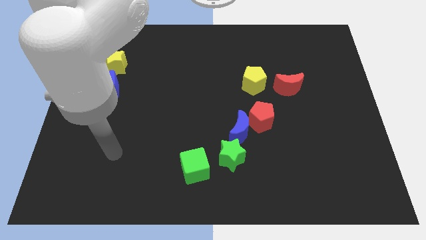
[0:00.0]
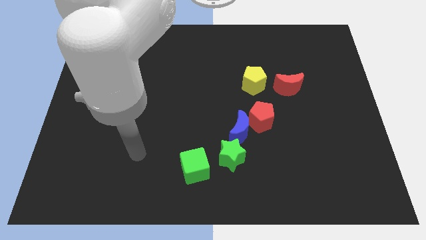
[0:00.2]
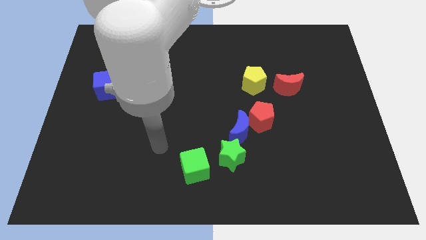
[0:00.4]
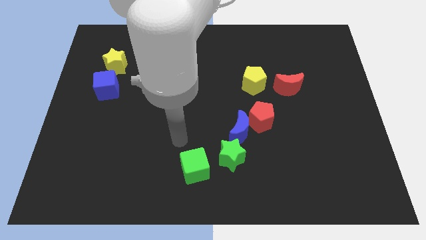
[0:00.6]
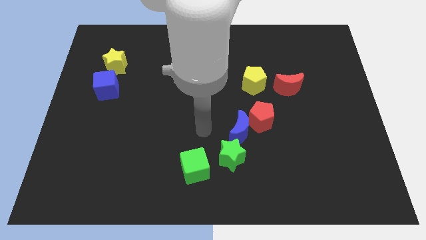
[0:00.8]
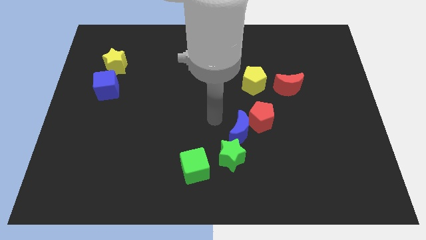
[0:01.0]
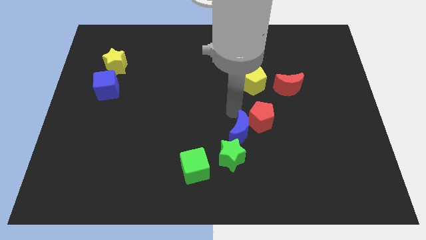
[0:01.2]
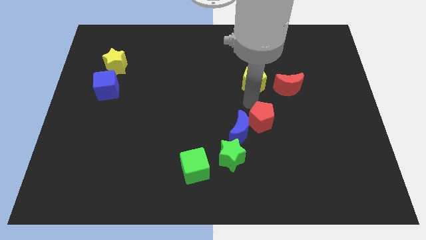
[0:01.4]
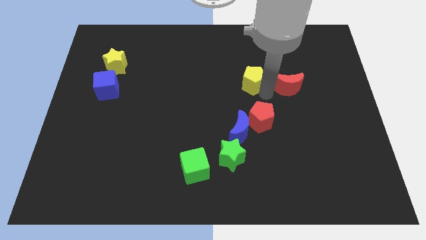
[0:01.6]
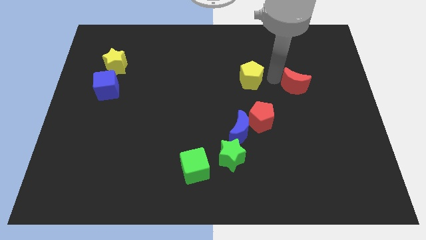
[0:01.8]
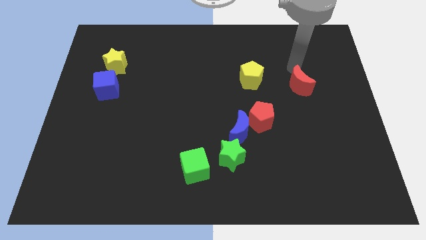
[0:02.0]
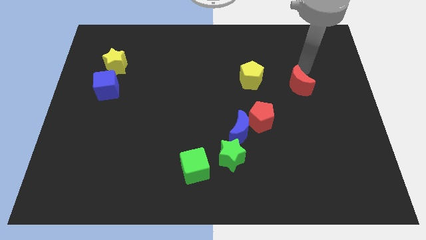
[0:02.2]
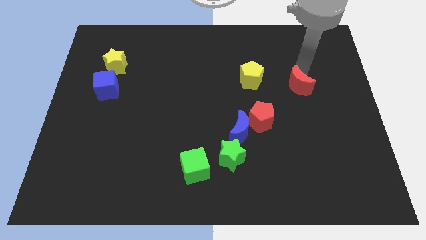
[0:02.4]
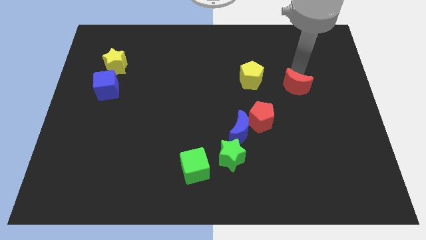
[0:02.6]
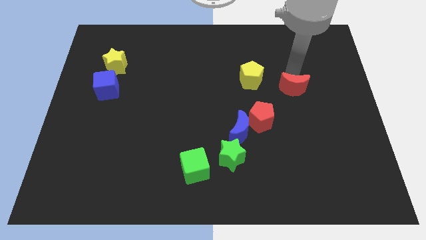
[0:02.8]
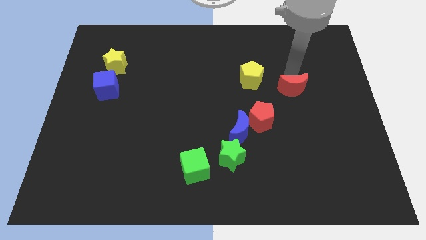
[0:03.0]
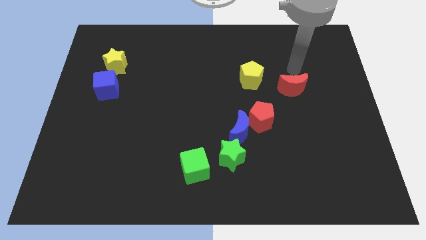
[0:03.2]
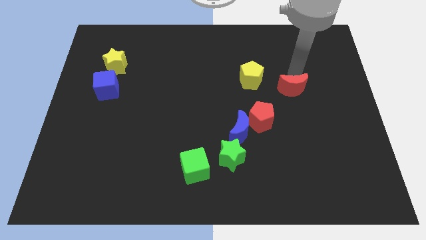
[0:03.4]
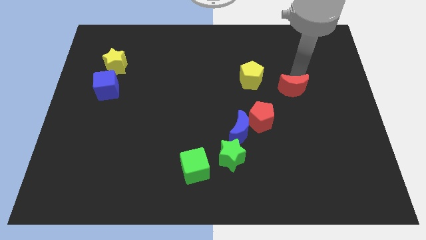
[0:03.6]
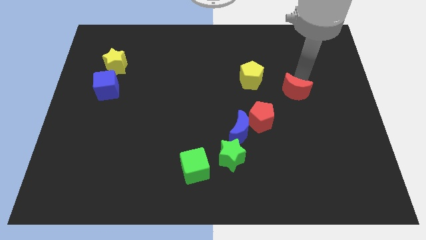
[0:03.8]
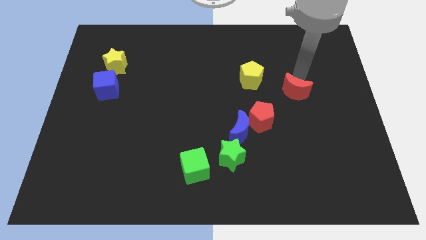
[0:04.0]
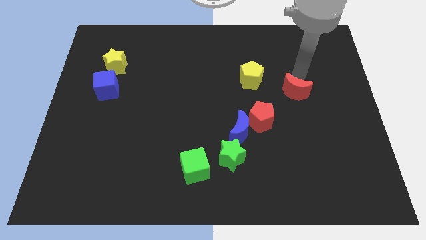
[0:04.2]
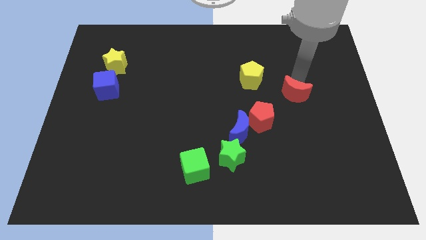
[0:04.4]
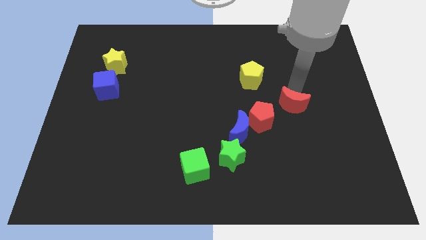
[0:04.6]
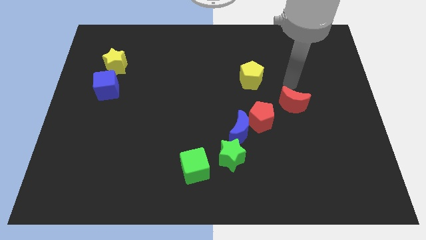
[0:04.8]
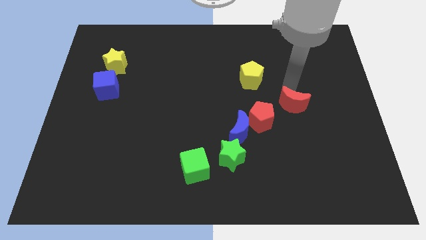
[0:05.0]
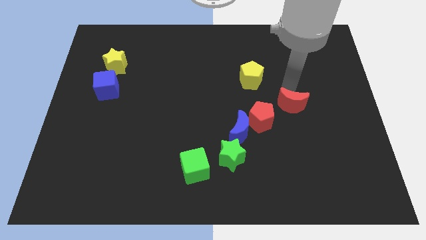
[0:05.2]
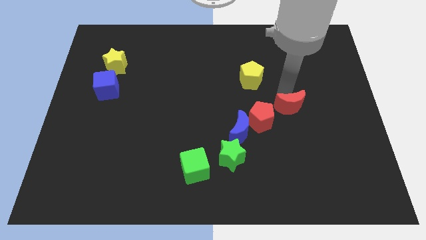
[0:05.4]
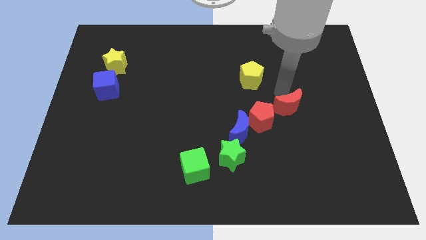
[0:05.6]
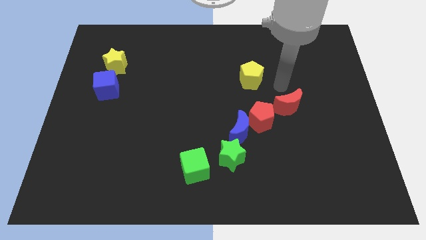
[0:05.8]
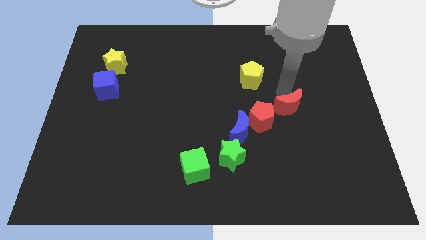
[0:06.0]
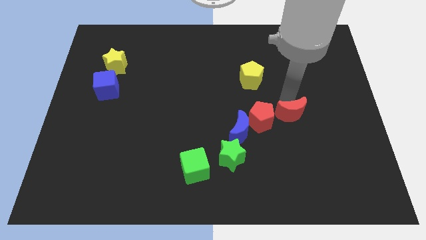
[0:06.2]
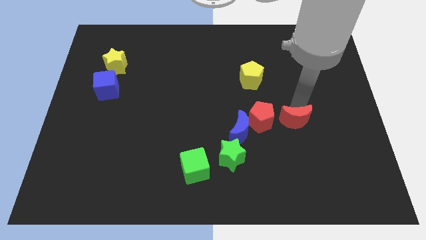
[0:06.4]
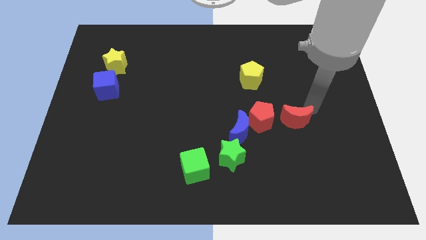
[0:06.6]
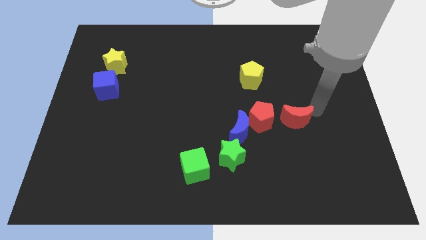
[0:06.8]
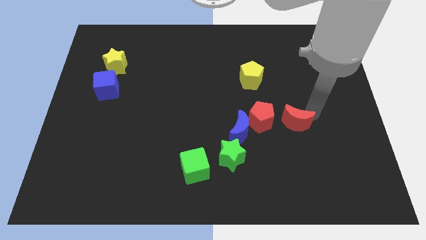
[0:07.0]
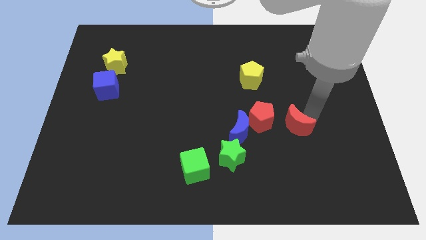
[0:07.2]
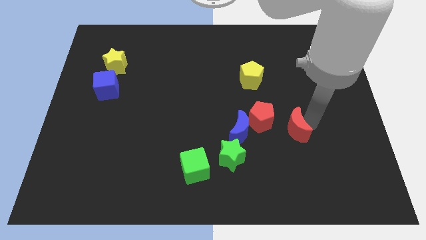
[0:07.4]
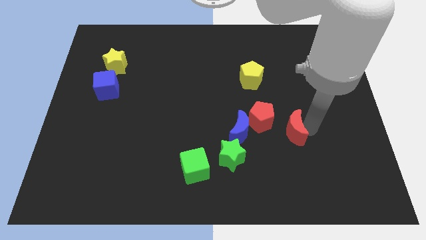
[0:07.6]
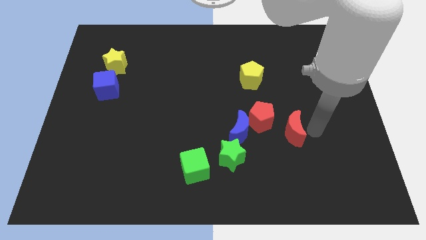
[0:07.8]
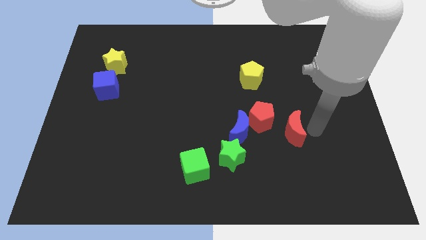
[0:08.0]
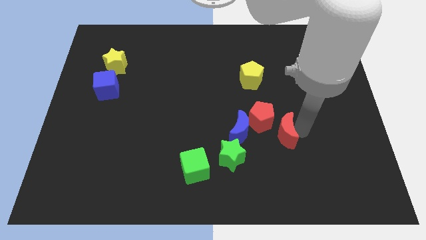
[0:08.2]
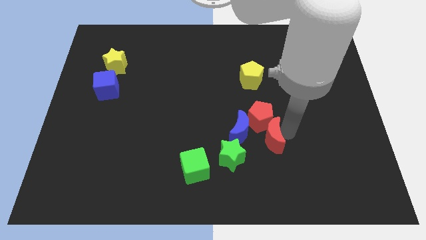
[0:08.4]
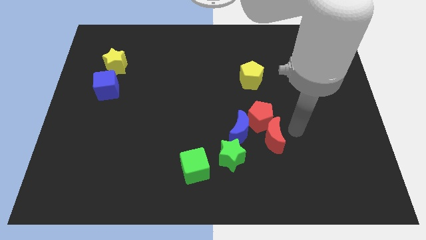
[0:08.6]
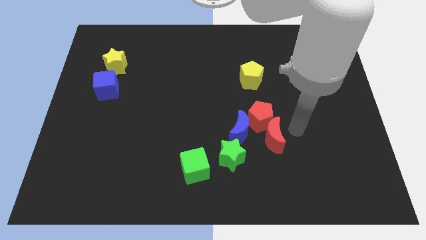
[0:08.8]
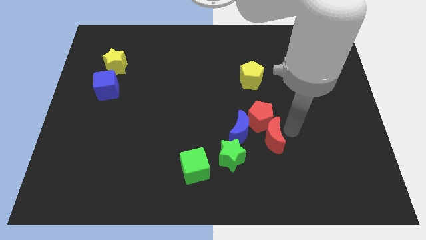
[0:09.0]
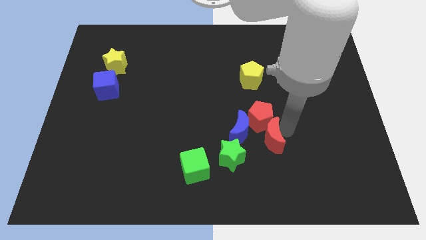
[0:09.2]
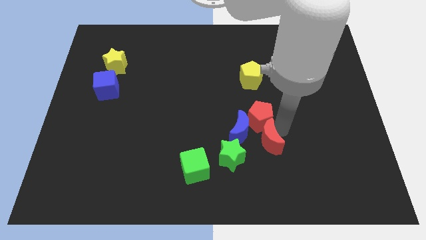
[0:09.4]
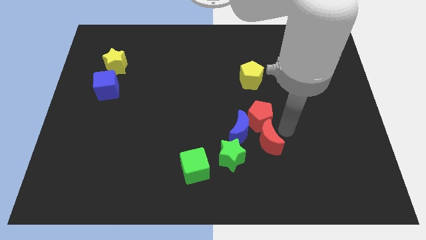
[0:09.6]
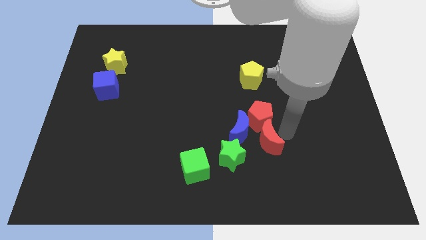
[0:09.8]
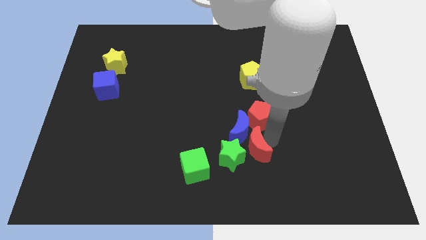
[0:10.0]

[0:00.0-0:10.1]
slide the red moon close to the green star

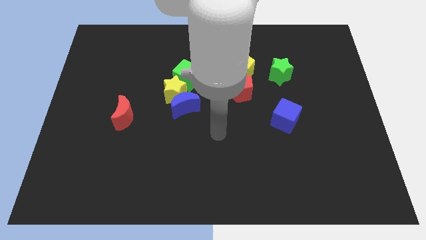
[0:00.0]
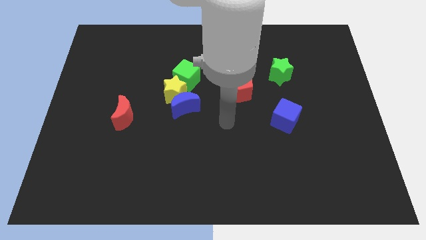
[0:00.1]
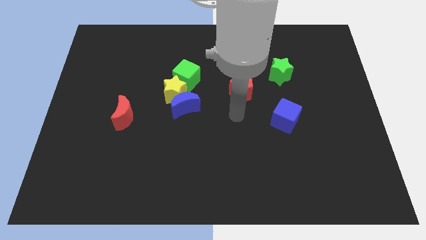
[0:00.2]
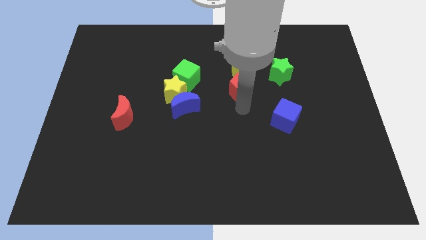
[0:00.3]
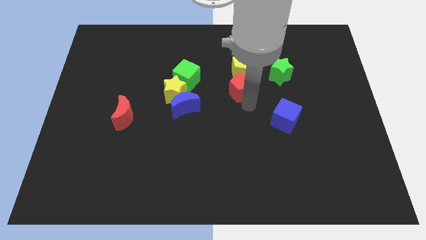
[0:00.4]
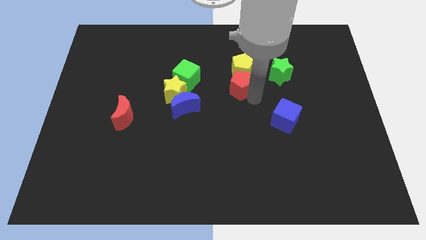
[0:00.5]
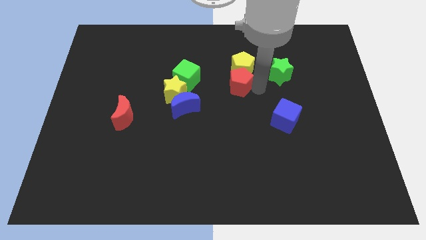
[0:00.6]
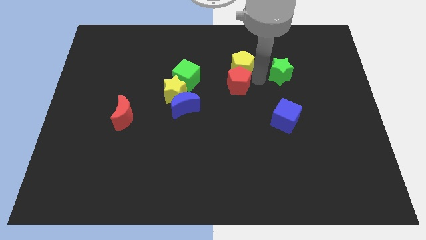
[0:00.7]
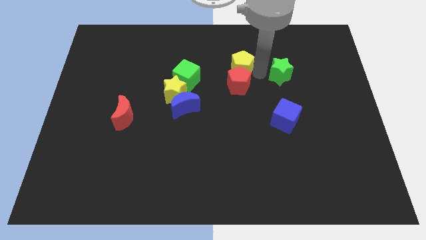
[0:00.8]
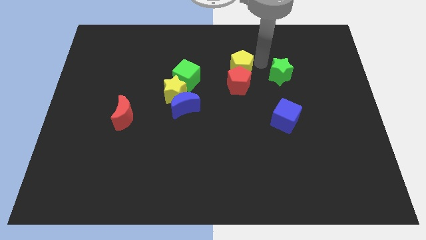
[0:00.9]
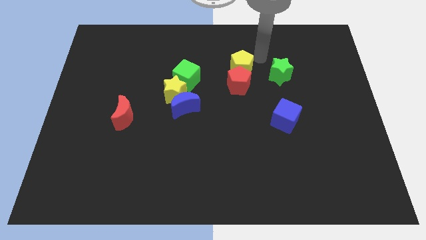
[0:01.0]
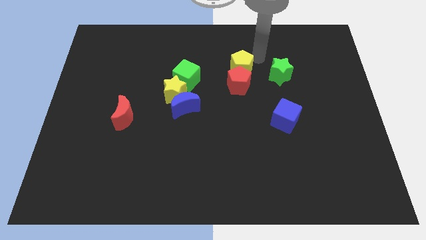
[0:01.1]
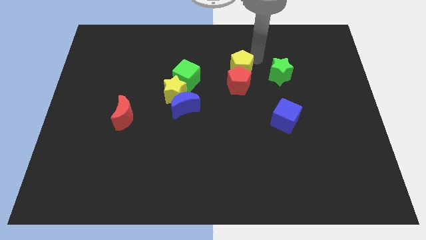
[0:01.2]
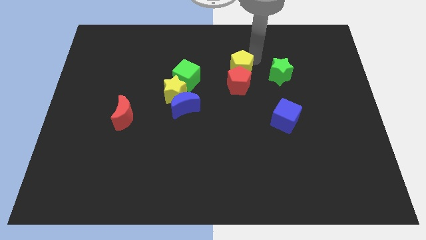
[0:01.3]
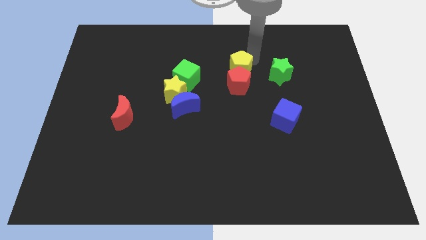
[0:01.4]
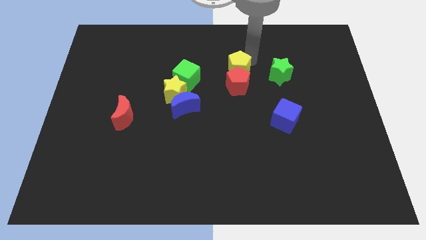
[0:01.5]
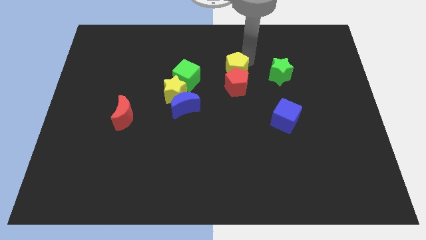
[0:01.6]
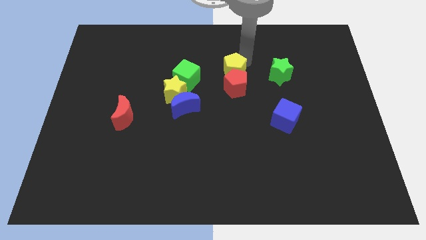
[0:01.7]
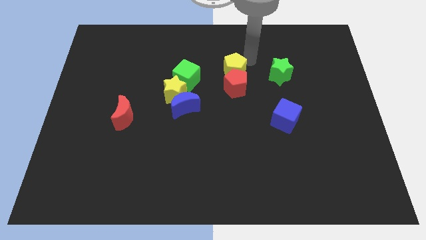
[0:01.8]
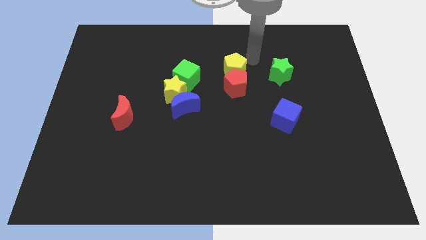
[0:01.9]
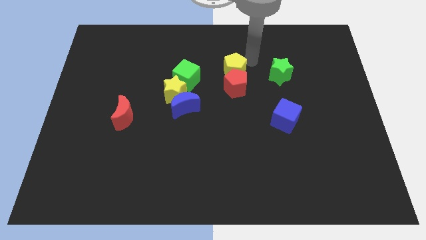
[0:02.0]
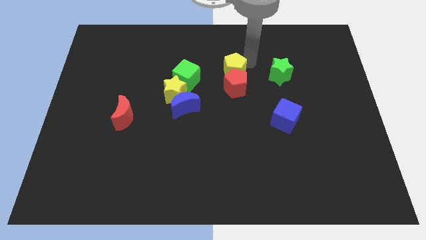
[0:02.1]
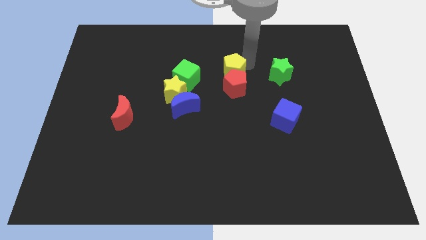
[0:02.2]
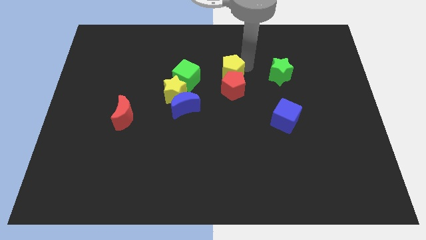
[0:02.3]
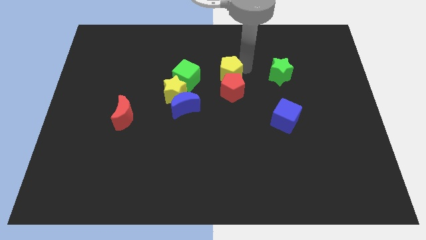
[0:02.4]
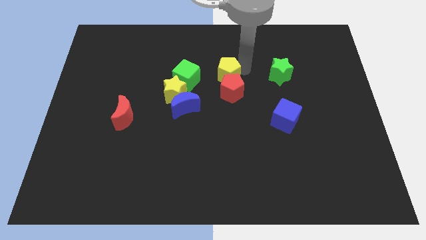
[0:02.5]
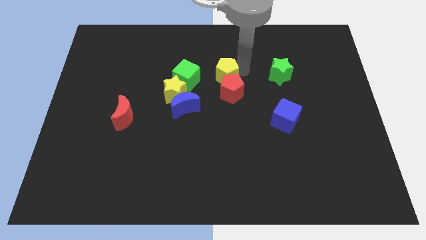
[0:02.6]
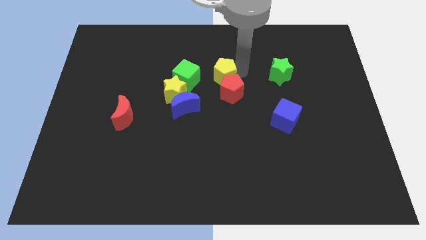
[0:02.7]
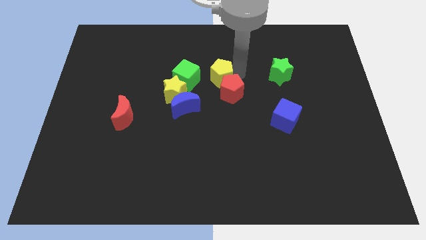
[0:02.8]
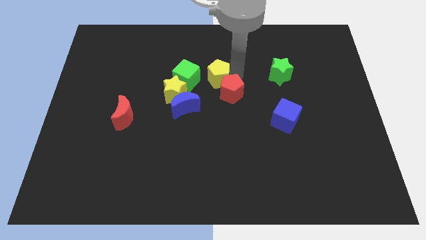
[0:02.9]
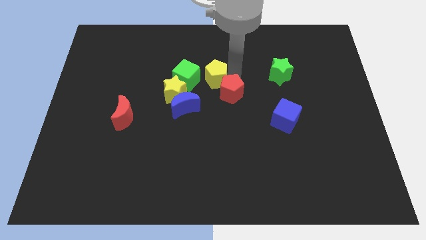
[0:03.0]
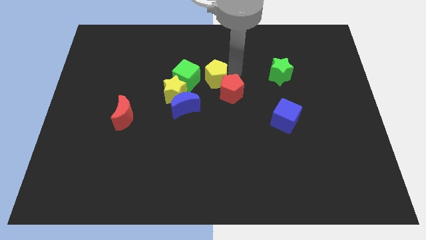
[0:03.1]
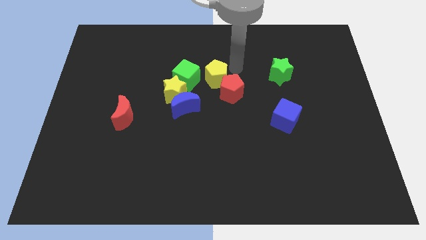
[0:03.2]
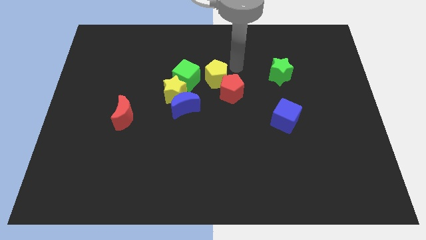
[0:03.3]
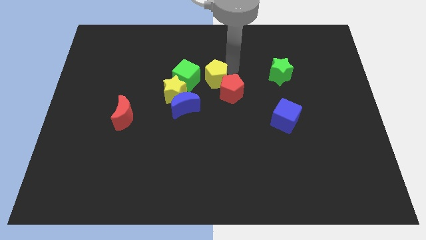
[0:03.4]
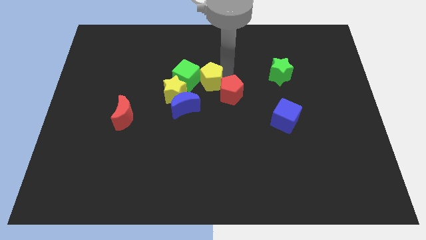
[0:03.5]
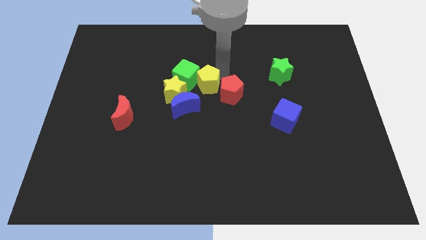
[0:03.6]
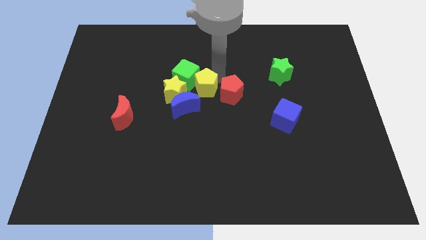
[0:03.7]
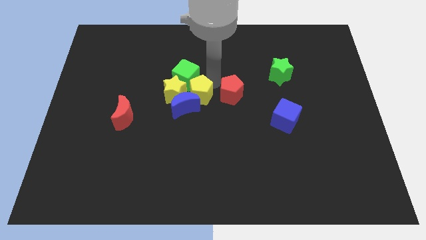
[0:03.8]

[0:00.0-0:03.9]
push the yellow pentagon close to the yellow star

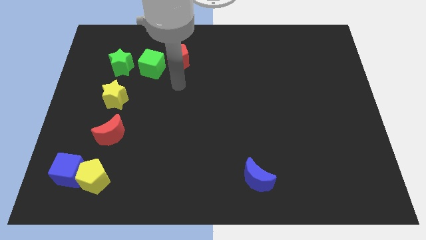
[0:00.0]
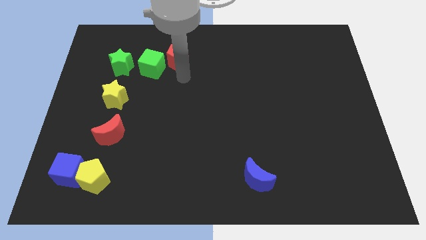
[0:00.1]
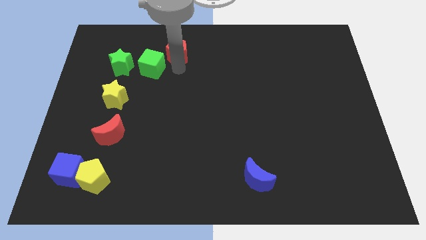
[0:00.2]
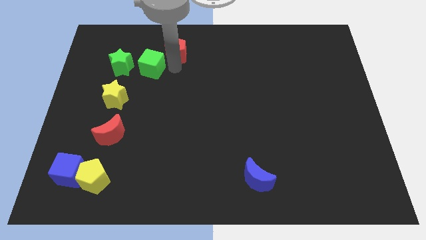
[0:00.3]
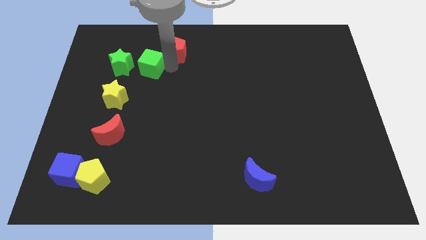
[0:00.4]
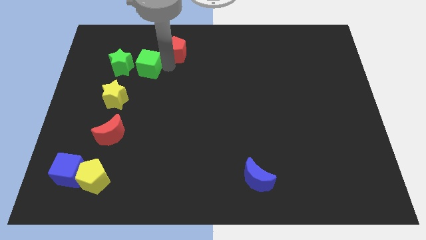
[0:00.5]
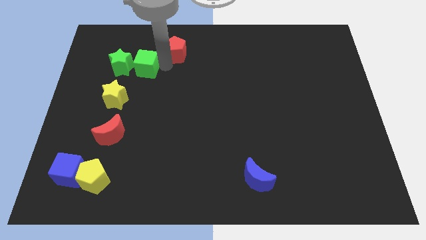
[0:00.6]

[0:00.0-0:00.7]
slide the green cube close to the green star
